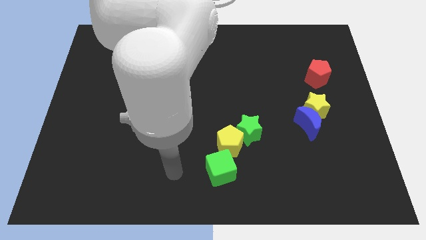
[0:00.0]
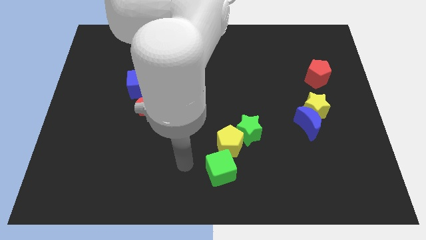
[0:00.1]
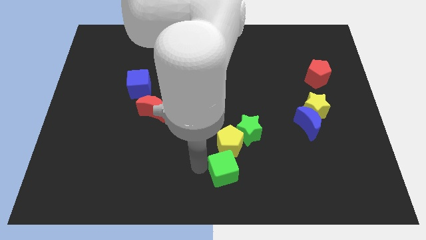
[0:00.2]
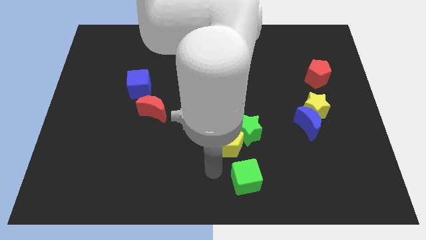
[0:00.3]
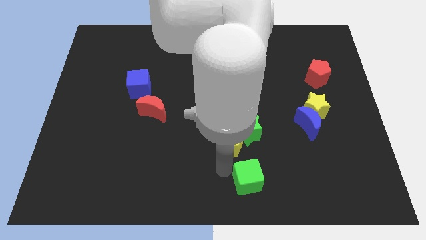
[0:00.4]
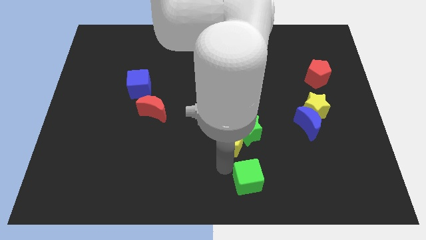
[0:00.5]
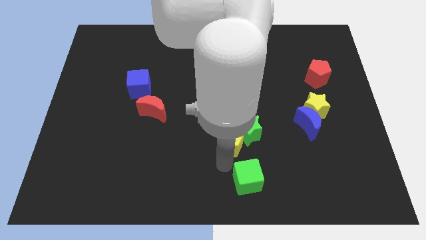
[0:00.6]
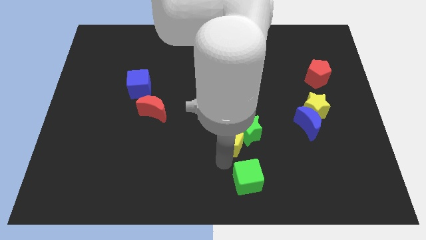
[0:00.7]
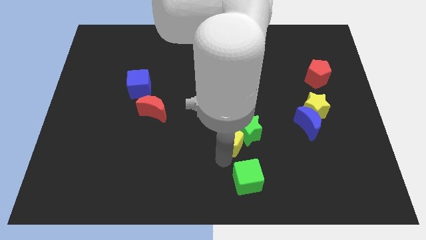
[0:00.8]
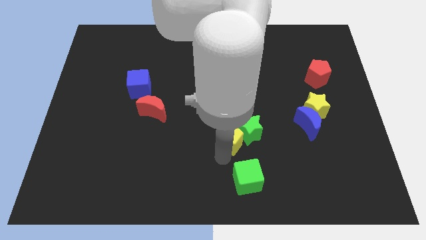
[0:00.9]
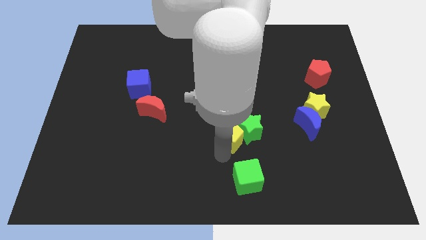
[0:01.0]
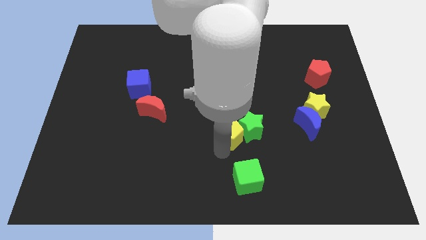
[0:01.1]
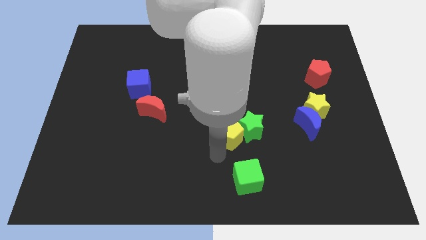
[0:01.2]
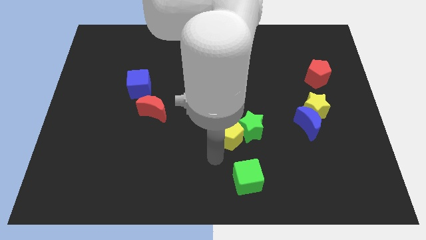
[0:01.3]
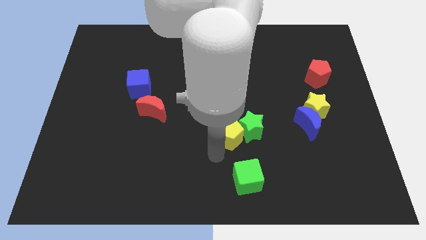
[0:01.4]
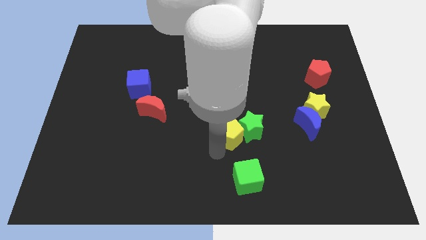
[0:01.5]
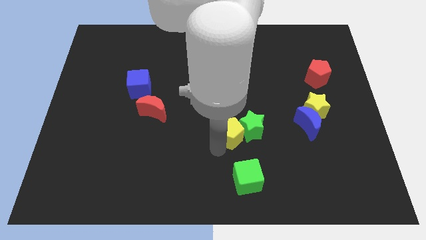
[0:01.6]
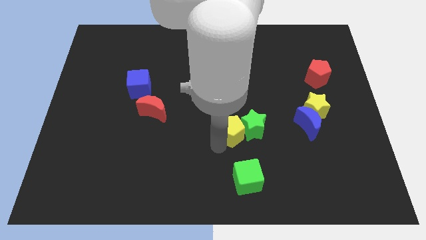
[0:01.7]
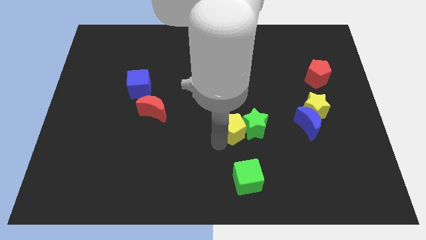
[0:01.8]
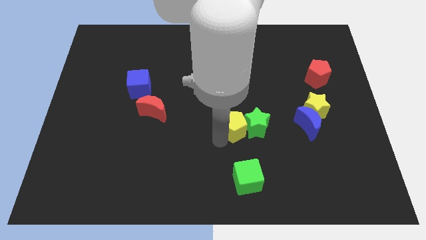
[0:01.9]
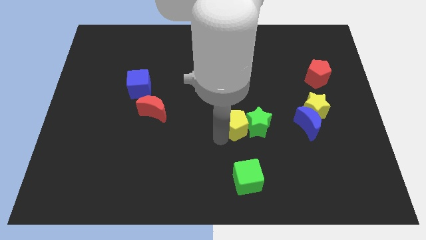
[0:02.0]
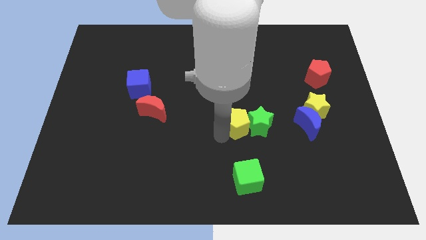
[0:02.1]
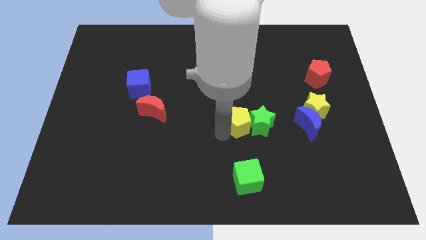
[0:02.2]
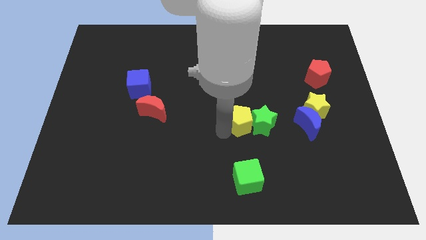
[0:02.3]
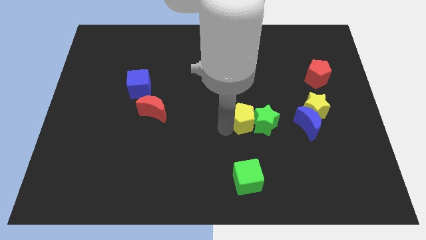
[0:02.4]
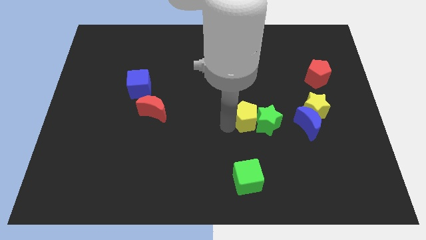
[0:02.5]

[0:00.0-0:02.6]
push the yellow pentagon a little bit diagonally upwards and to the right

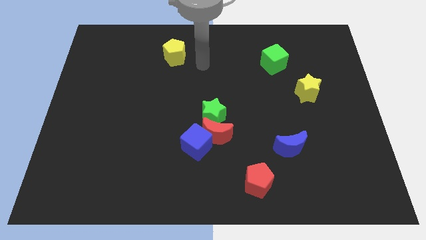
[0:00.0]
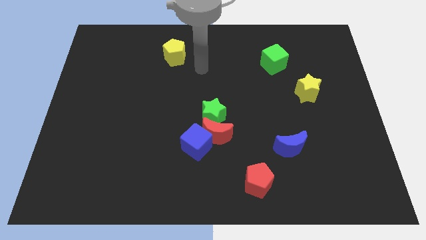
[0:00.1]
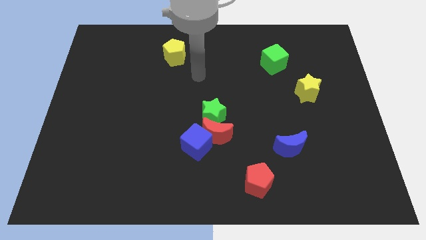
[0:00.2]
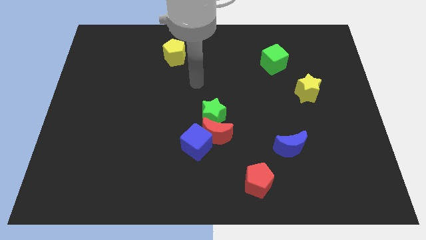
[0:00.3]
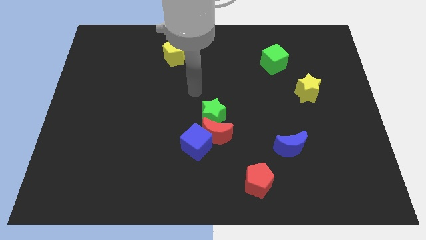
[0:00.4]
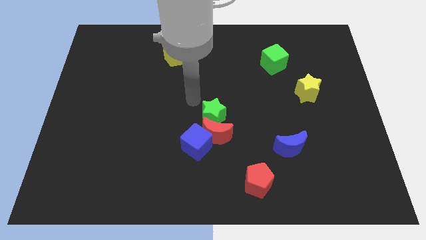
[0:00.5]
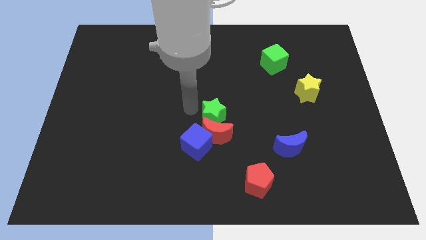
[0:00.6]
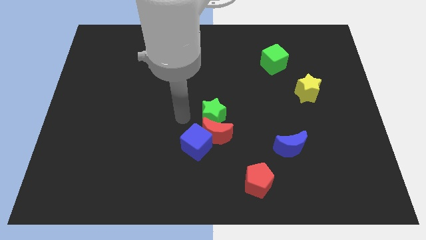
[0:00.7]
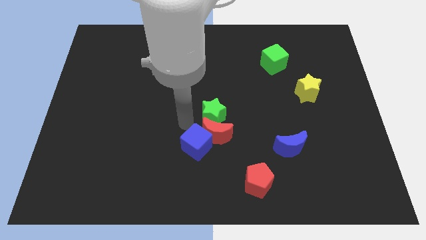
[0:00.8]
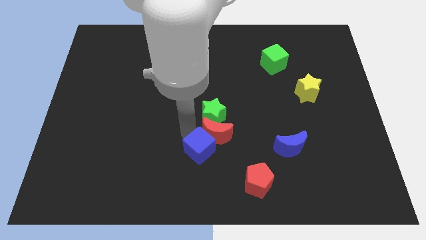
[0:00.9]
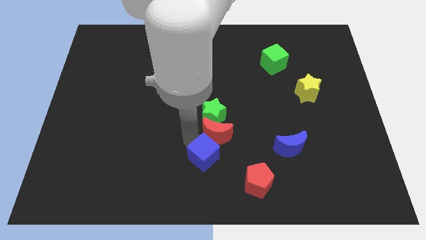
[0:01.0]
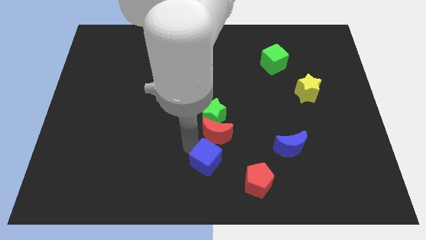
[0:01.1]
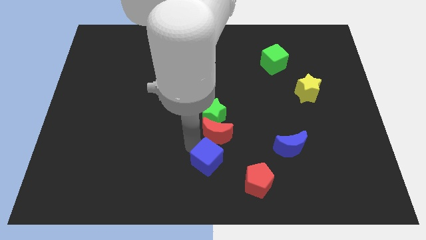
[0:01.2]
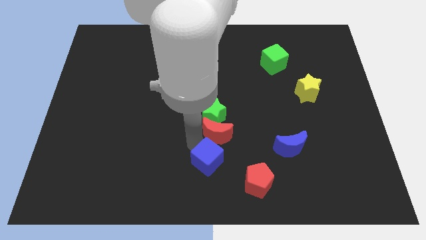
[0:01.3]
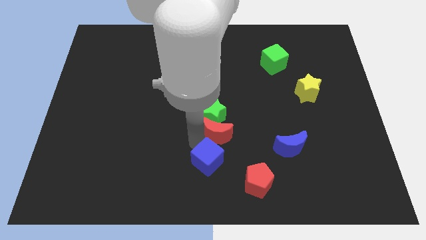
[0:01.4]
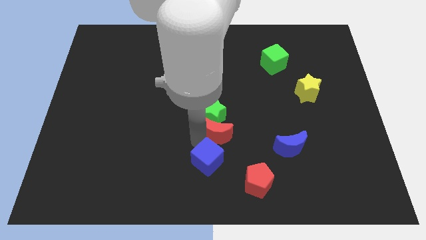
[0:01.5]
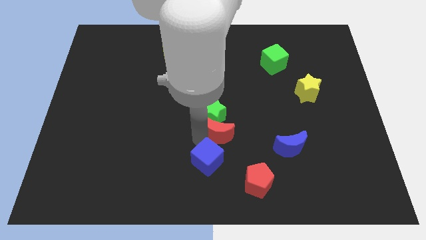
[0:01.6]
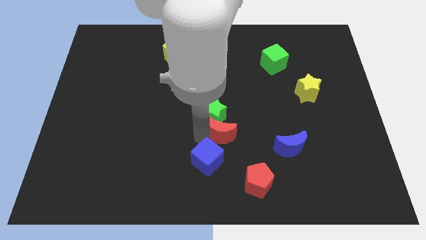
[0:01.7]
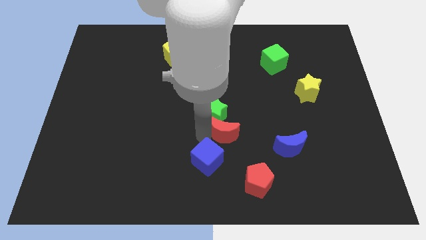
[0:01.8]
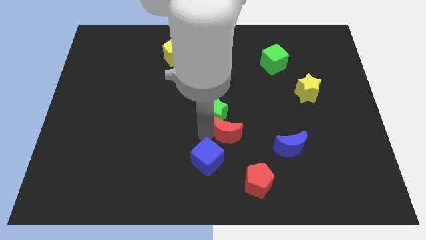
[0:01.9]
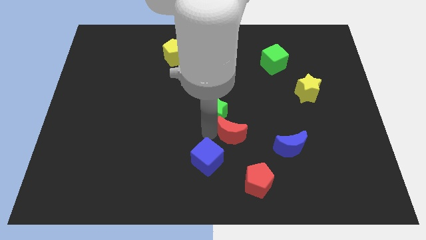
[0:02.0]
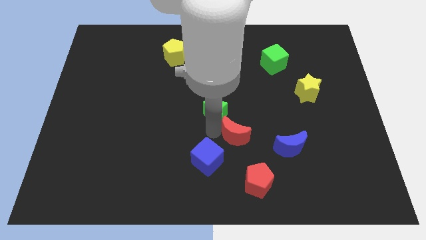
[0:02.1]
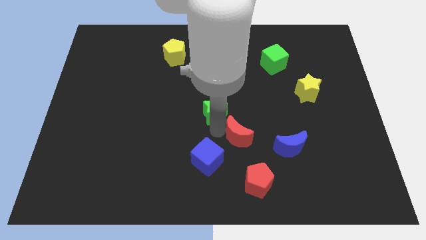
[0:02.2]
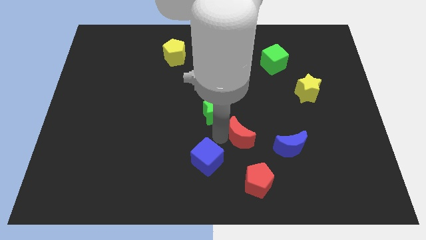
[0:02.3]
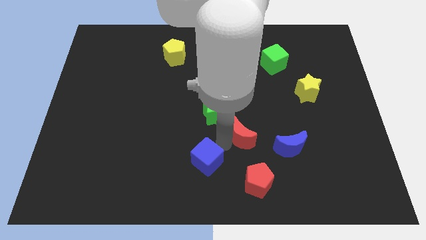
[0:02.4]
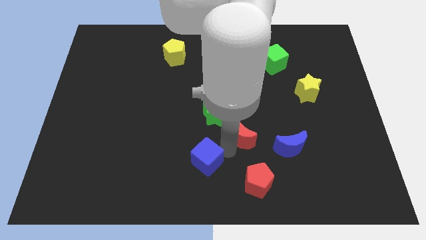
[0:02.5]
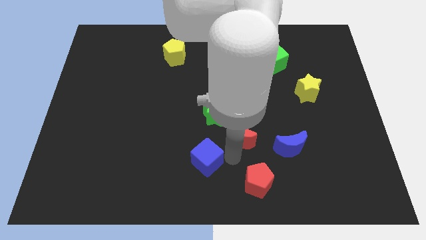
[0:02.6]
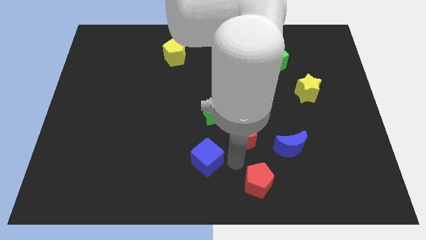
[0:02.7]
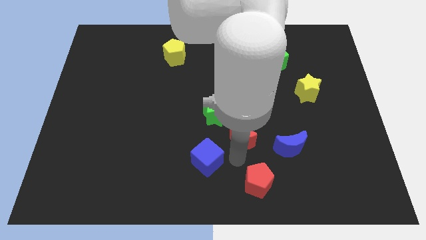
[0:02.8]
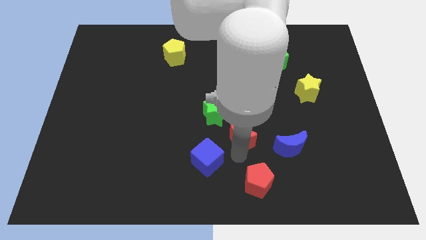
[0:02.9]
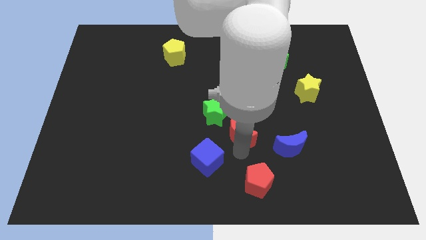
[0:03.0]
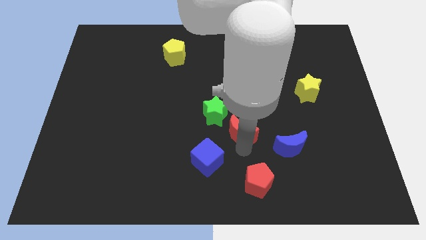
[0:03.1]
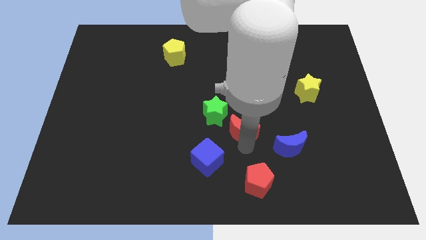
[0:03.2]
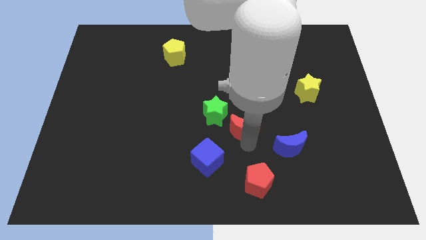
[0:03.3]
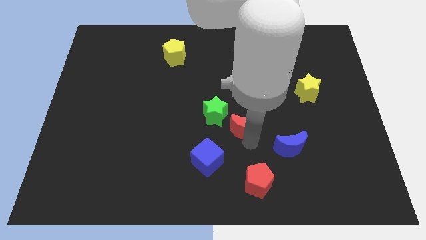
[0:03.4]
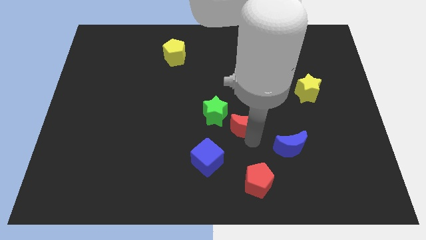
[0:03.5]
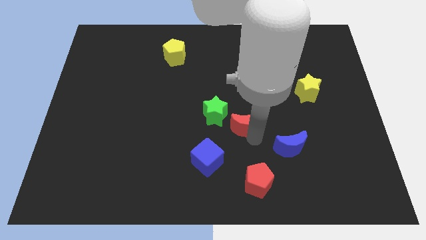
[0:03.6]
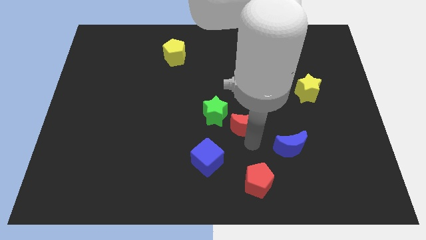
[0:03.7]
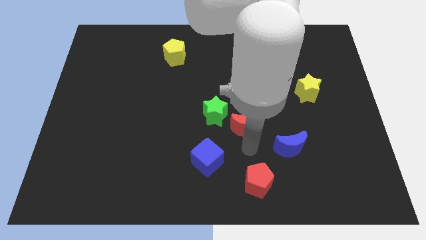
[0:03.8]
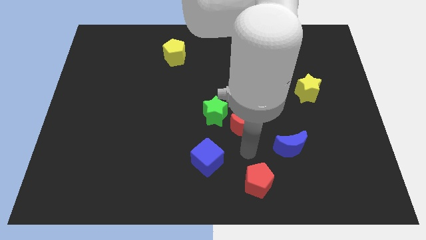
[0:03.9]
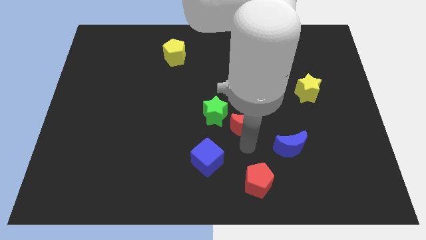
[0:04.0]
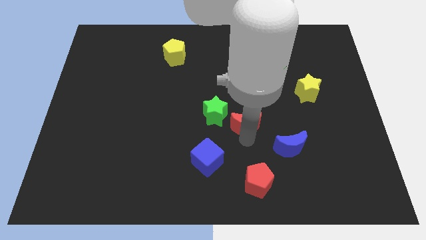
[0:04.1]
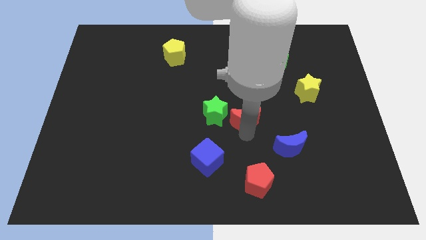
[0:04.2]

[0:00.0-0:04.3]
push the red moon up and then to the right slightly

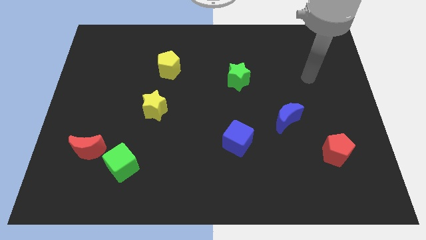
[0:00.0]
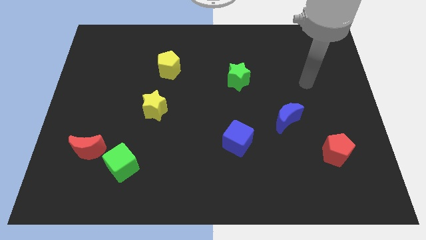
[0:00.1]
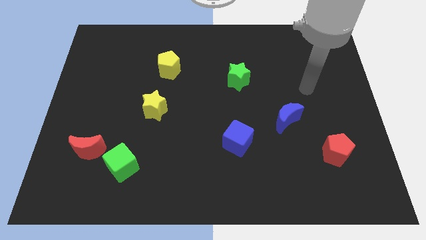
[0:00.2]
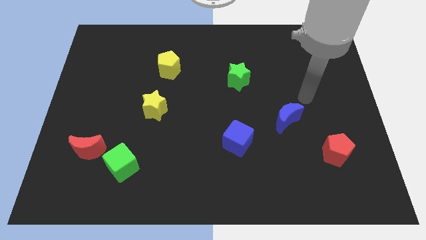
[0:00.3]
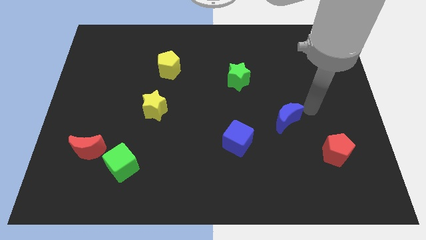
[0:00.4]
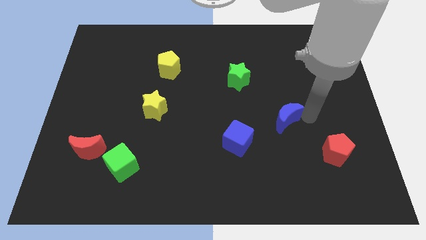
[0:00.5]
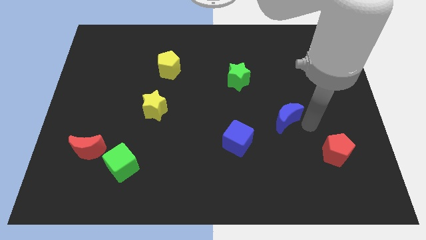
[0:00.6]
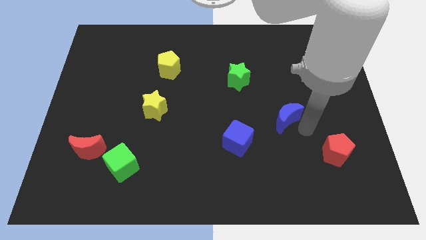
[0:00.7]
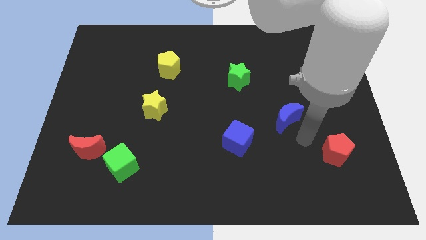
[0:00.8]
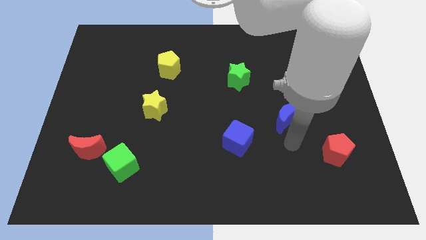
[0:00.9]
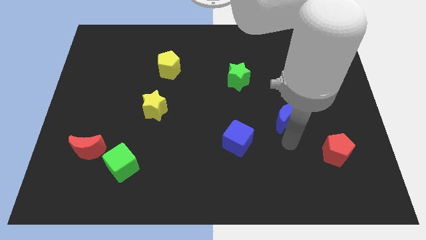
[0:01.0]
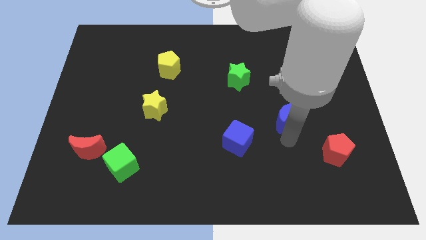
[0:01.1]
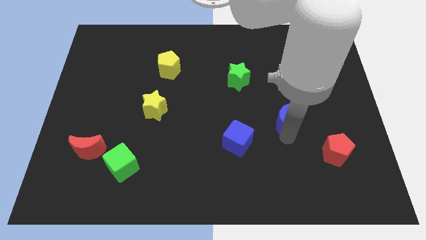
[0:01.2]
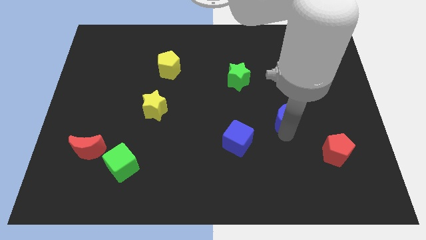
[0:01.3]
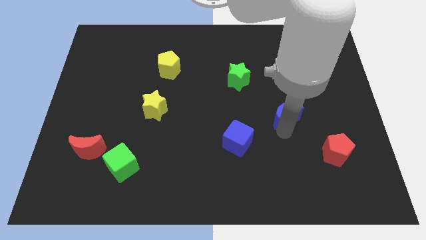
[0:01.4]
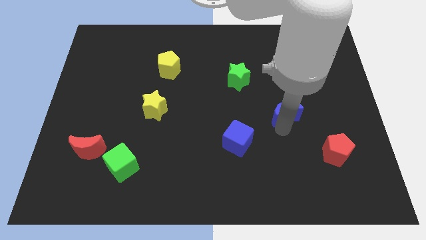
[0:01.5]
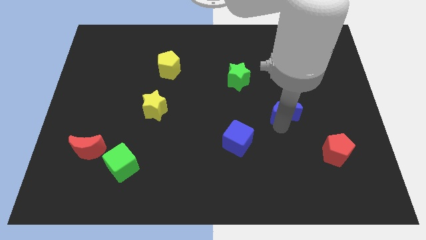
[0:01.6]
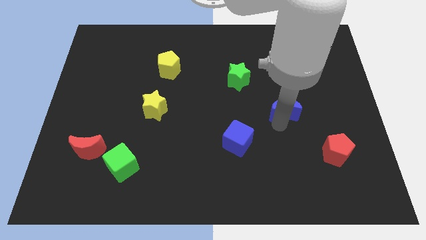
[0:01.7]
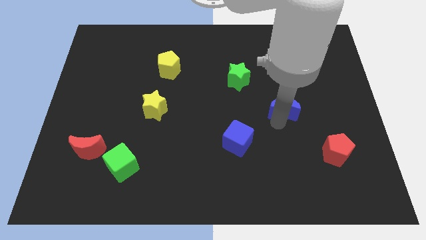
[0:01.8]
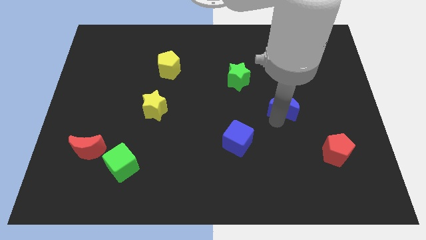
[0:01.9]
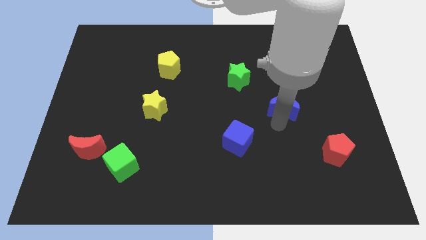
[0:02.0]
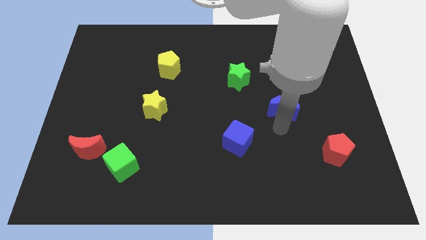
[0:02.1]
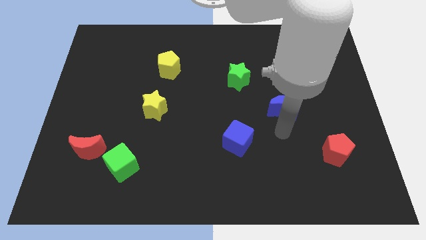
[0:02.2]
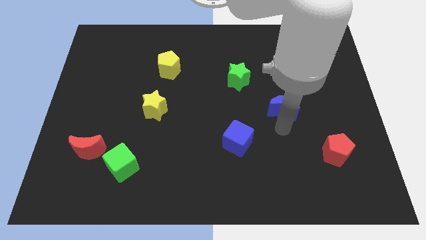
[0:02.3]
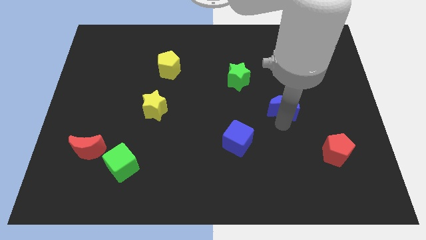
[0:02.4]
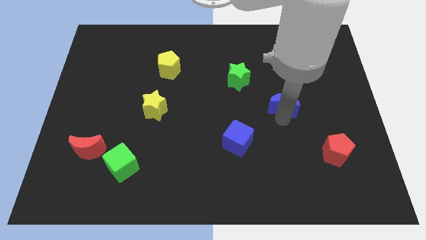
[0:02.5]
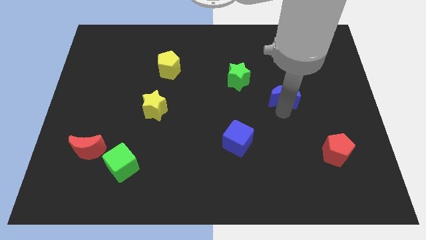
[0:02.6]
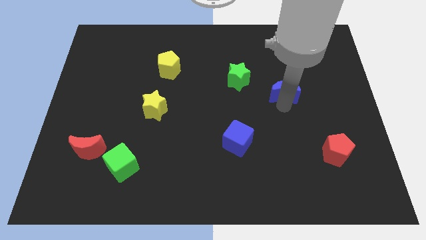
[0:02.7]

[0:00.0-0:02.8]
move the blue moon a little bit upwards
